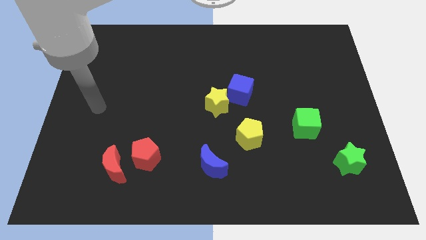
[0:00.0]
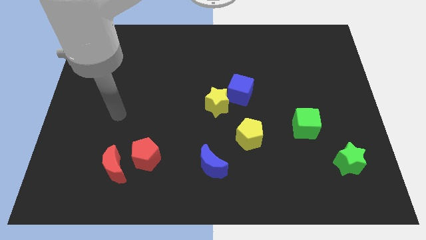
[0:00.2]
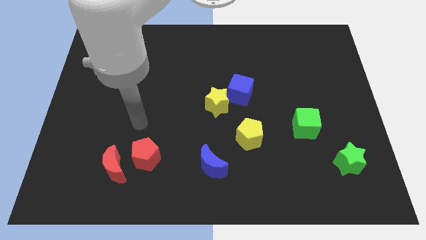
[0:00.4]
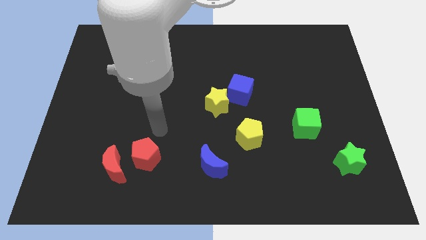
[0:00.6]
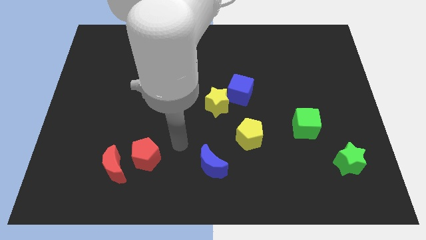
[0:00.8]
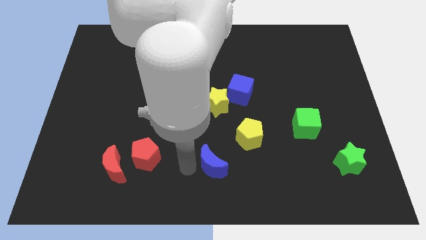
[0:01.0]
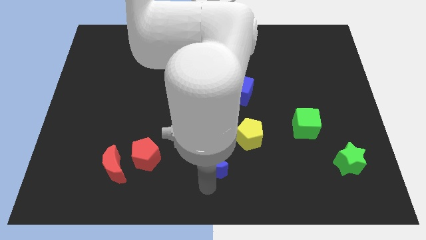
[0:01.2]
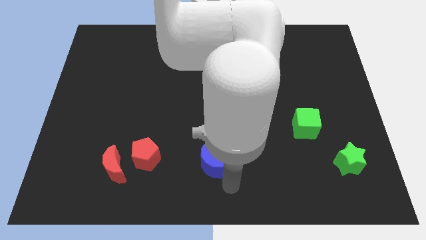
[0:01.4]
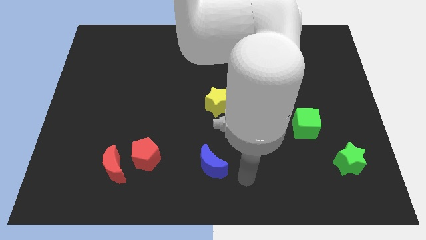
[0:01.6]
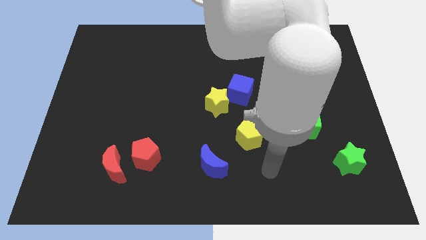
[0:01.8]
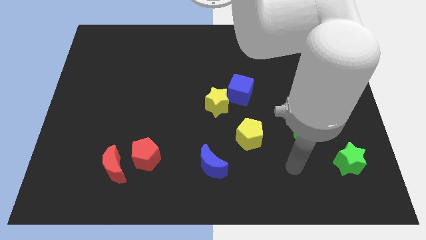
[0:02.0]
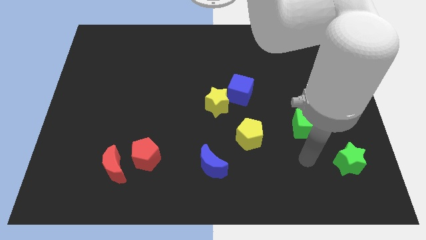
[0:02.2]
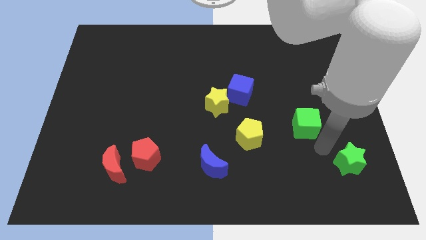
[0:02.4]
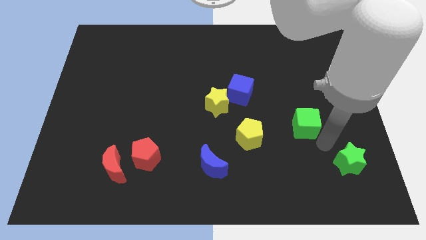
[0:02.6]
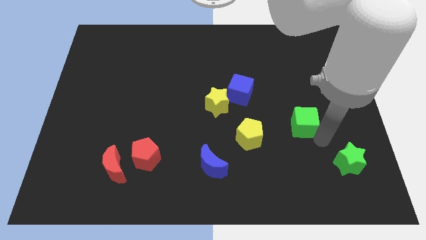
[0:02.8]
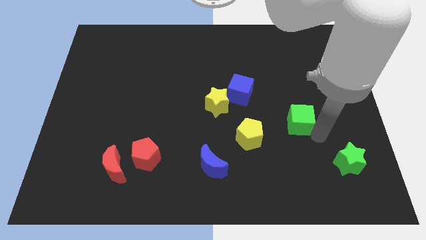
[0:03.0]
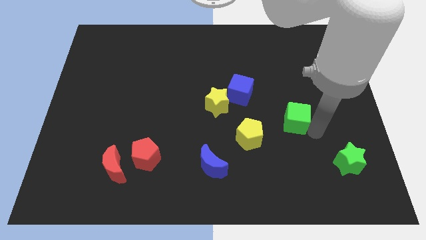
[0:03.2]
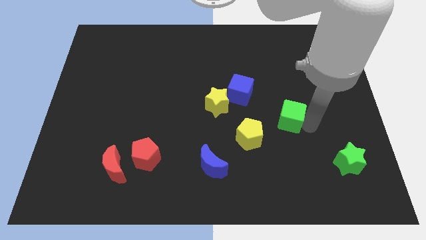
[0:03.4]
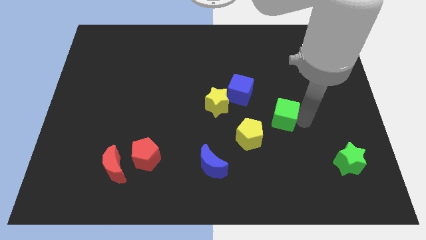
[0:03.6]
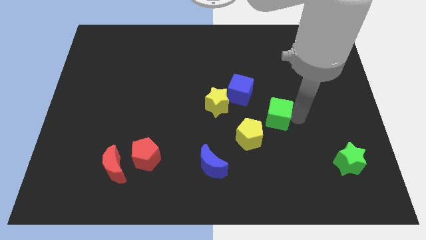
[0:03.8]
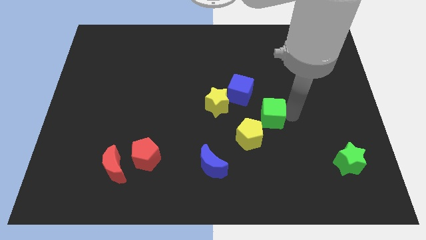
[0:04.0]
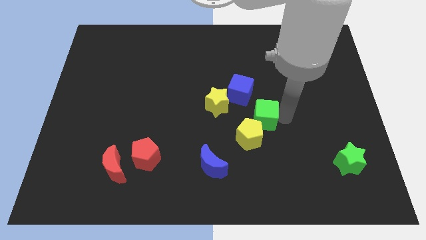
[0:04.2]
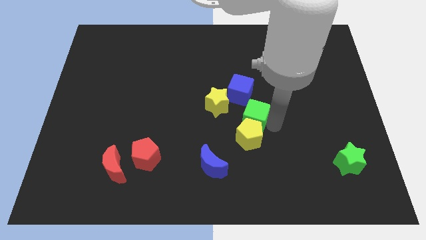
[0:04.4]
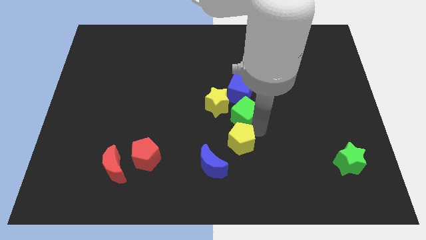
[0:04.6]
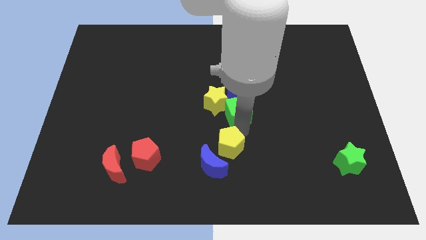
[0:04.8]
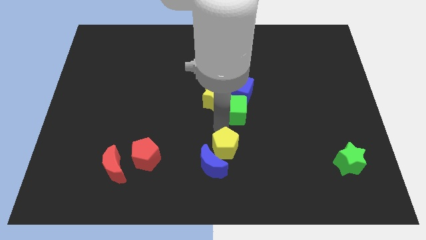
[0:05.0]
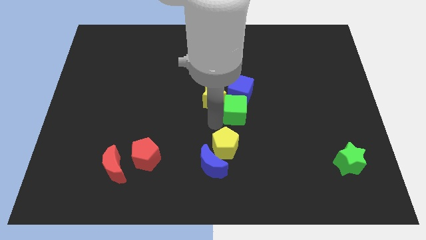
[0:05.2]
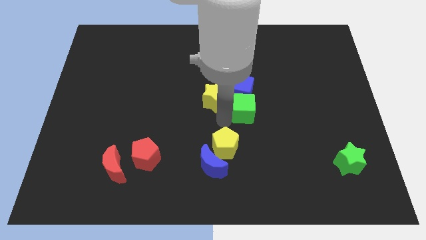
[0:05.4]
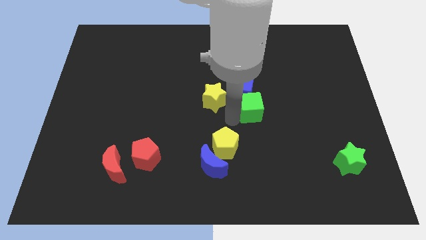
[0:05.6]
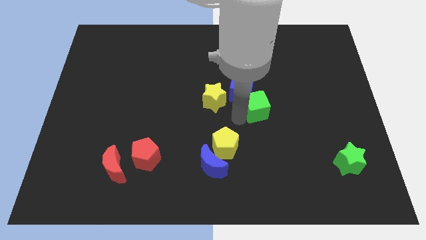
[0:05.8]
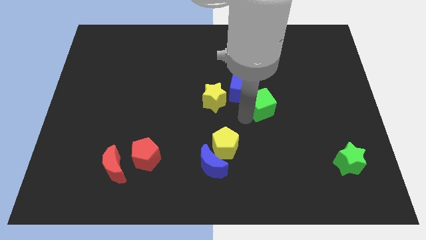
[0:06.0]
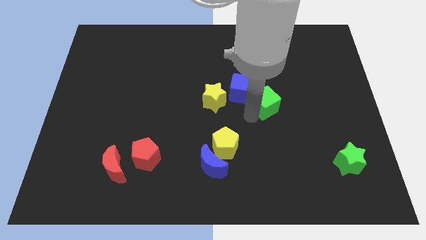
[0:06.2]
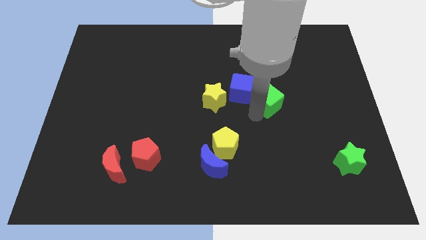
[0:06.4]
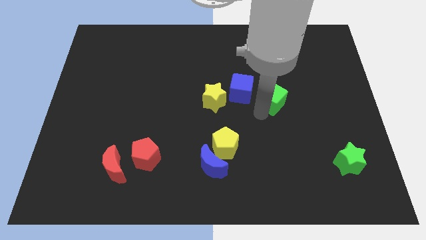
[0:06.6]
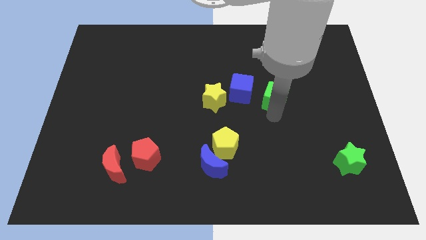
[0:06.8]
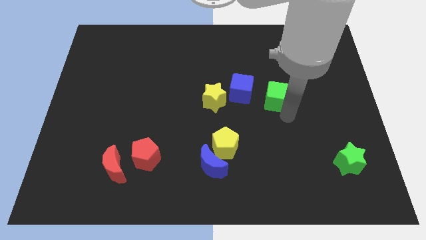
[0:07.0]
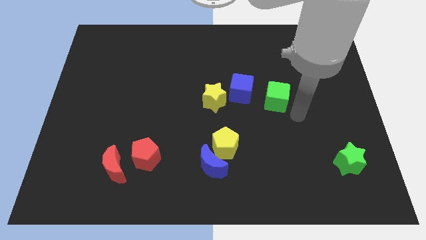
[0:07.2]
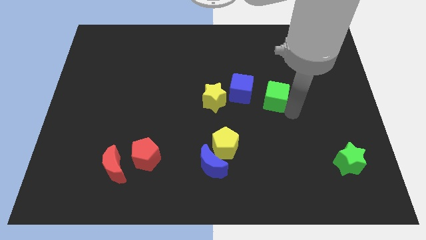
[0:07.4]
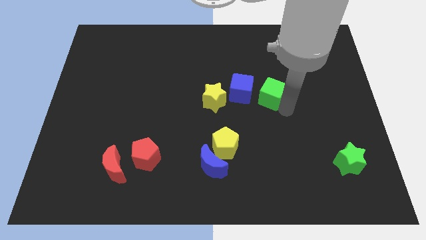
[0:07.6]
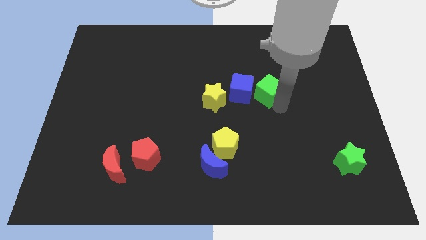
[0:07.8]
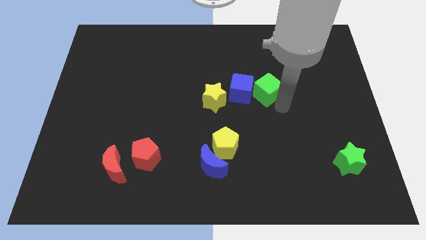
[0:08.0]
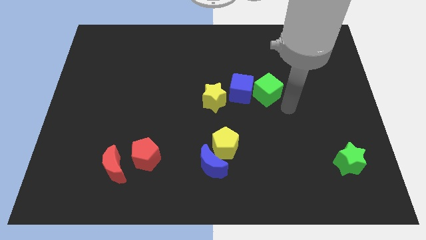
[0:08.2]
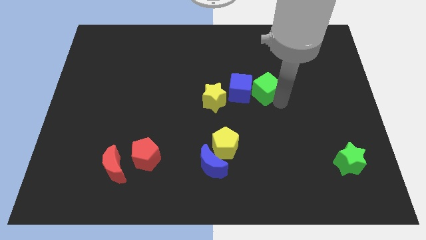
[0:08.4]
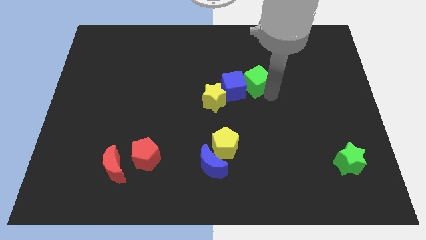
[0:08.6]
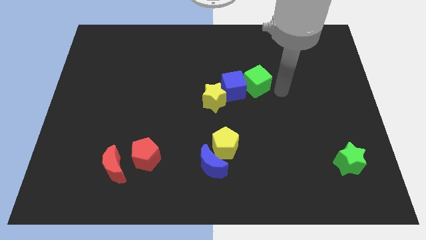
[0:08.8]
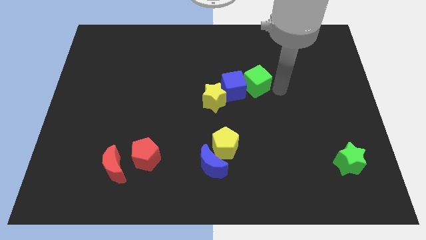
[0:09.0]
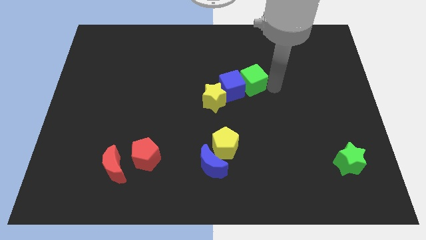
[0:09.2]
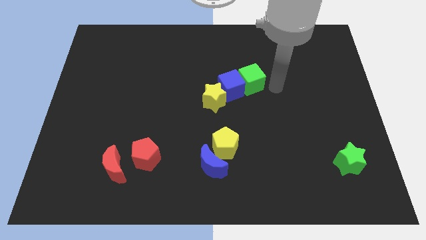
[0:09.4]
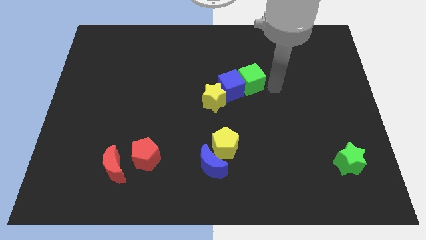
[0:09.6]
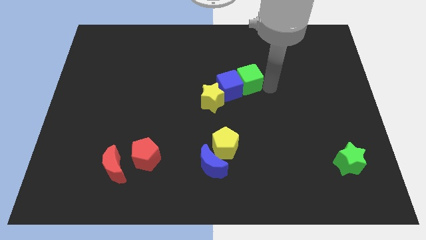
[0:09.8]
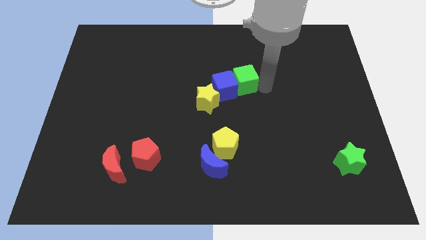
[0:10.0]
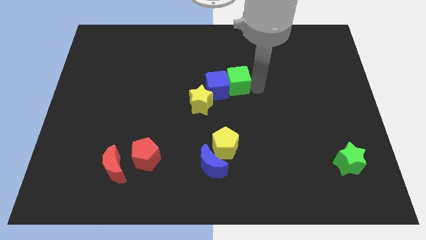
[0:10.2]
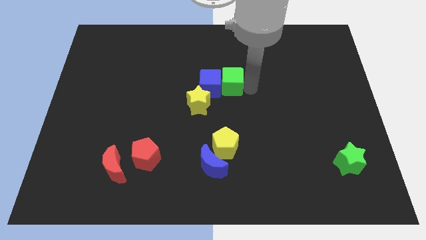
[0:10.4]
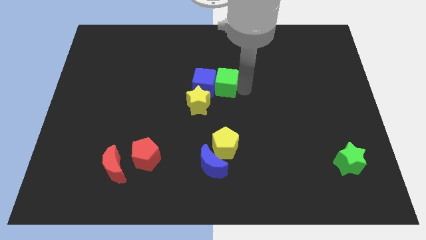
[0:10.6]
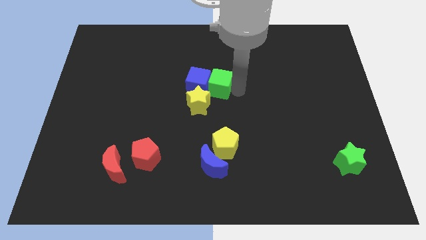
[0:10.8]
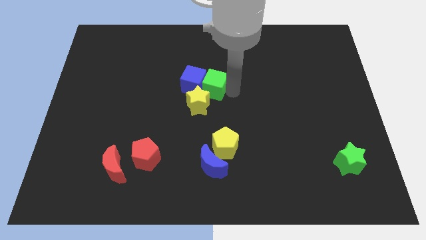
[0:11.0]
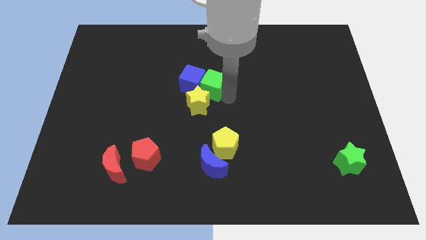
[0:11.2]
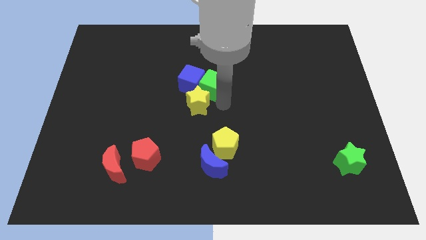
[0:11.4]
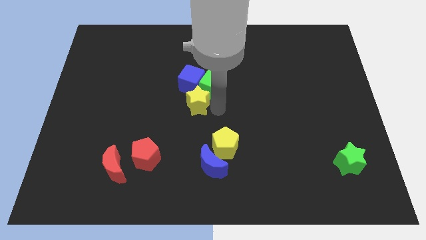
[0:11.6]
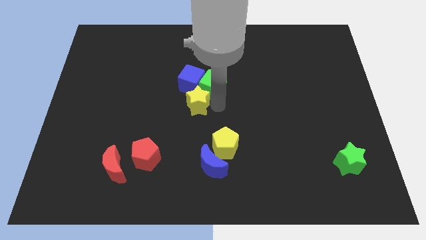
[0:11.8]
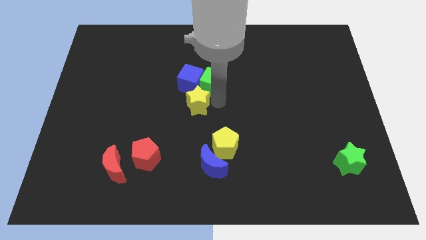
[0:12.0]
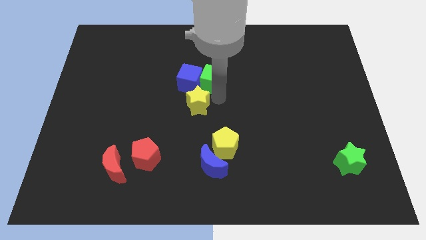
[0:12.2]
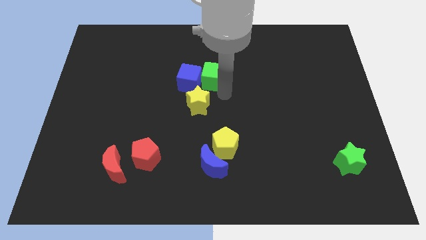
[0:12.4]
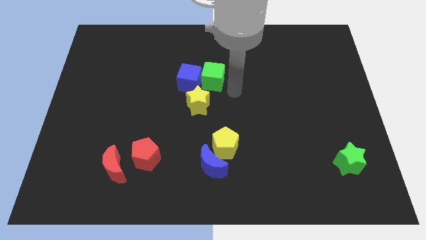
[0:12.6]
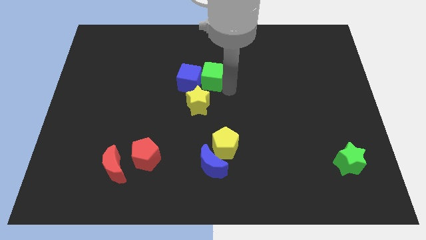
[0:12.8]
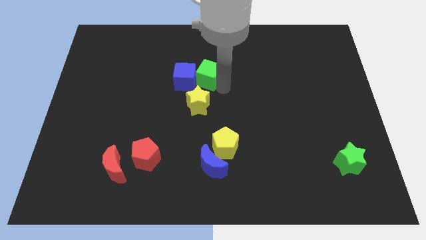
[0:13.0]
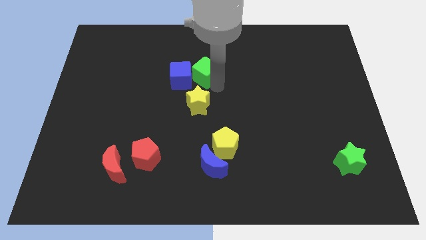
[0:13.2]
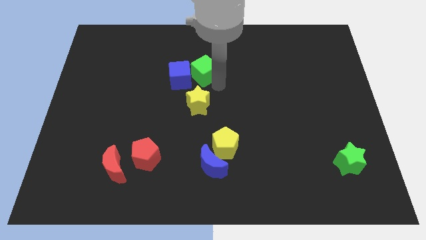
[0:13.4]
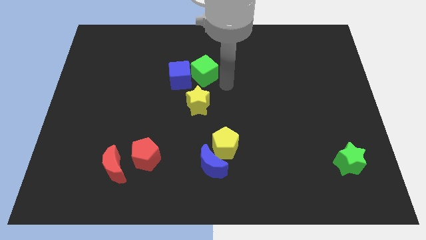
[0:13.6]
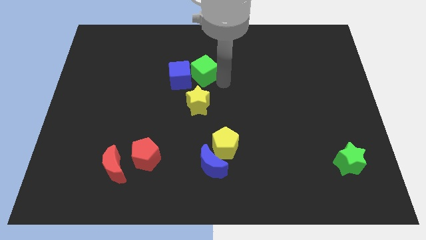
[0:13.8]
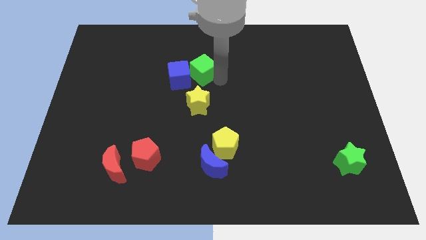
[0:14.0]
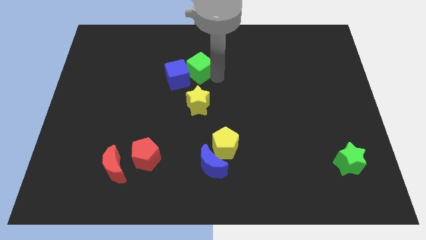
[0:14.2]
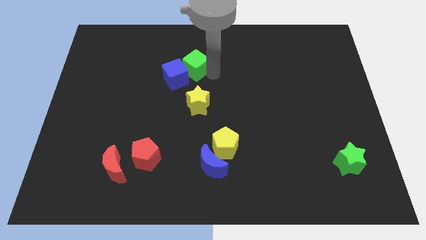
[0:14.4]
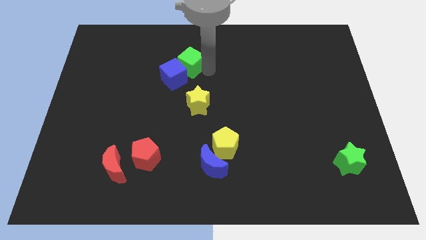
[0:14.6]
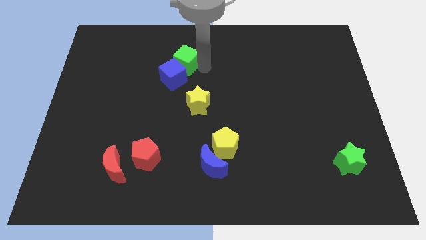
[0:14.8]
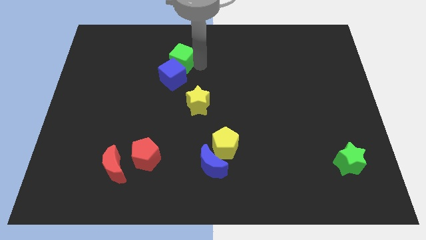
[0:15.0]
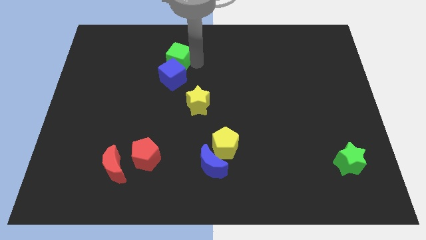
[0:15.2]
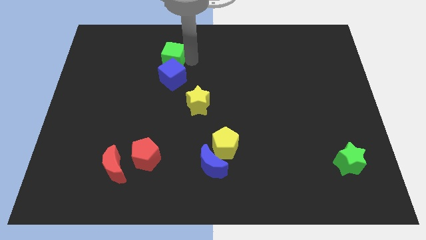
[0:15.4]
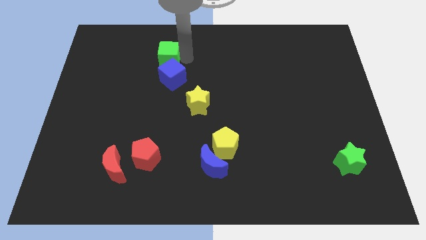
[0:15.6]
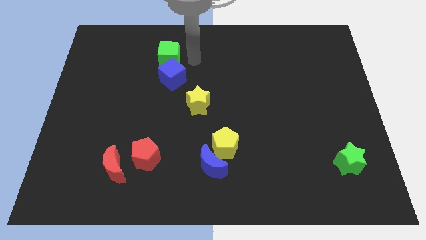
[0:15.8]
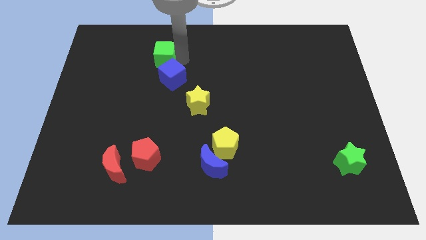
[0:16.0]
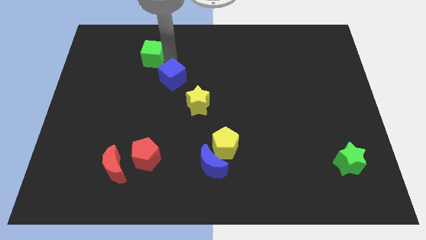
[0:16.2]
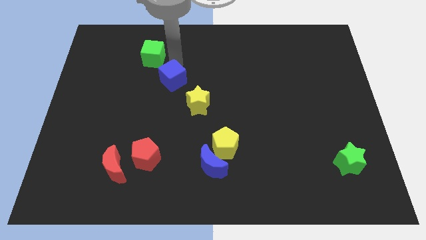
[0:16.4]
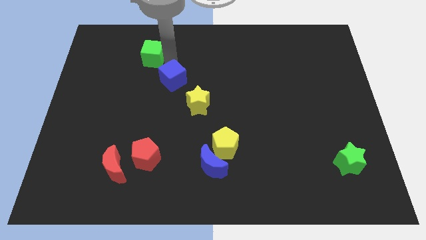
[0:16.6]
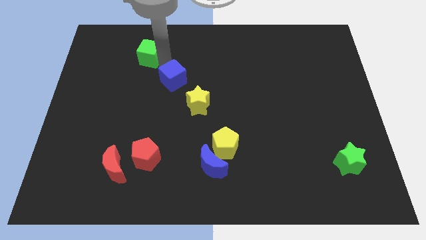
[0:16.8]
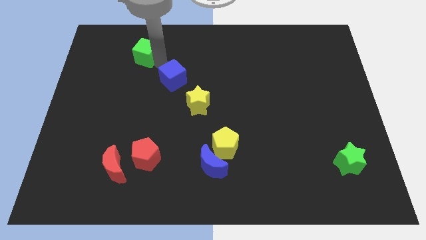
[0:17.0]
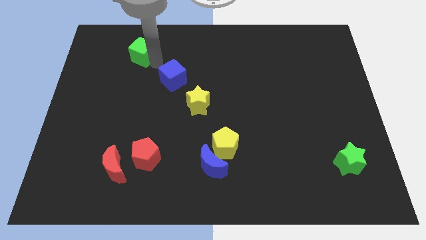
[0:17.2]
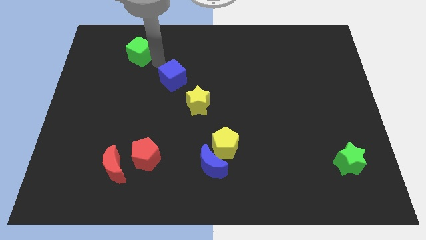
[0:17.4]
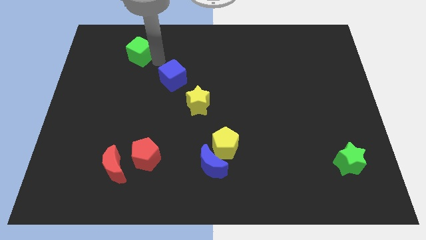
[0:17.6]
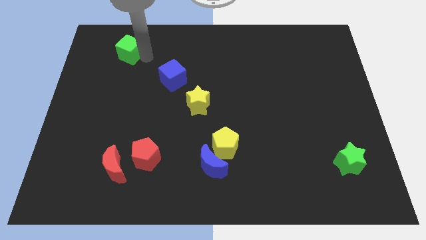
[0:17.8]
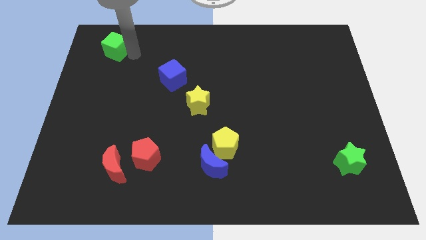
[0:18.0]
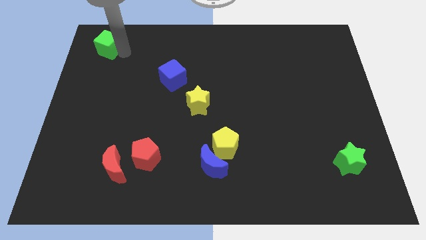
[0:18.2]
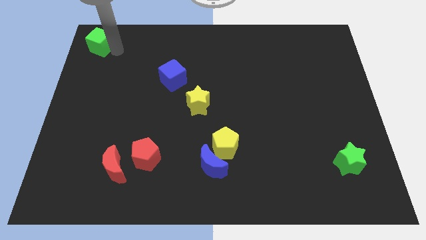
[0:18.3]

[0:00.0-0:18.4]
slide the green cube to the upper left corner
